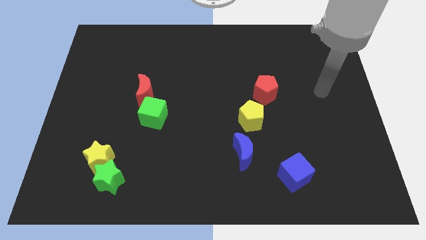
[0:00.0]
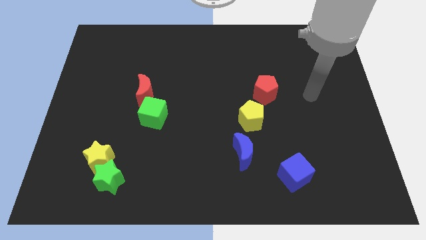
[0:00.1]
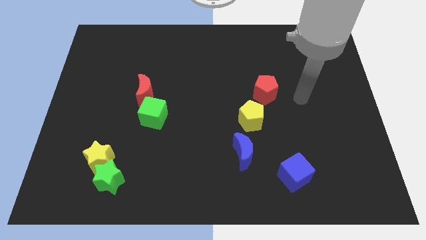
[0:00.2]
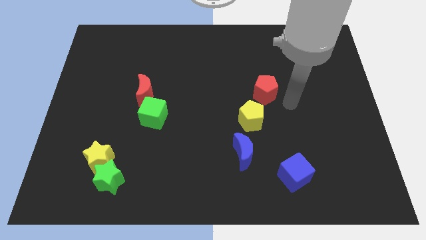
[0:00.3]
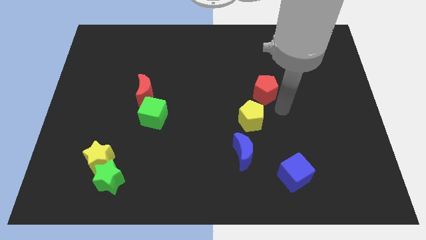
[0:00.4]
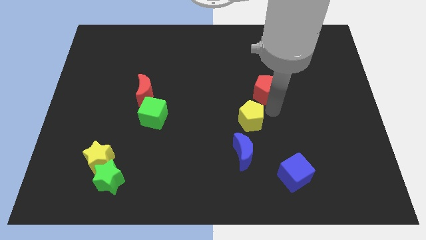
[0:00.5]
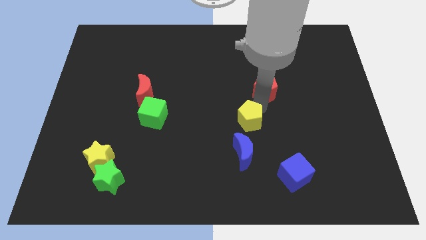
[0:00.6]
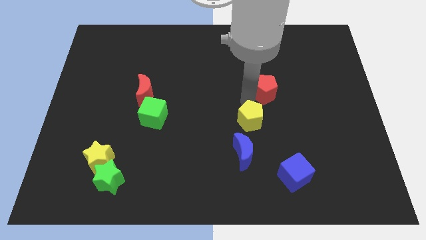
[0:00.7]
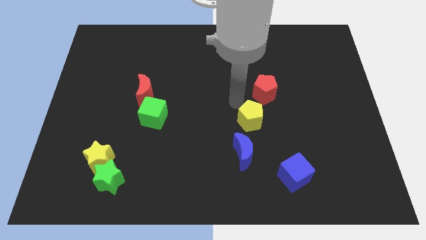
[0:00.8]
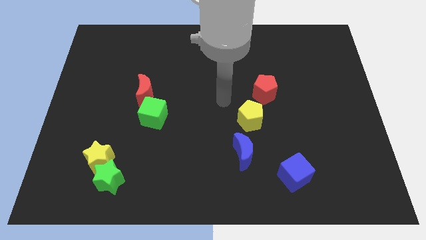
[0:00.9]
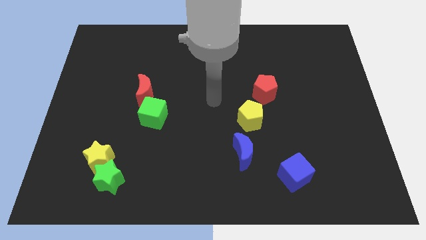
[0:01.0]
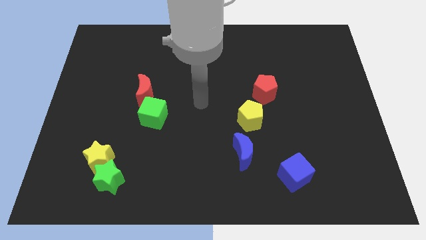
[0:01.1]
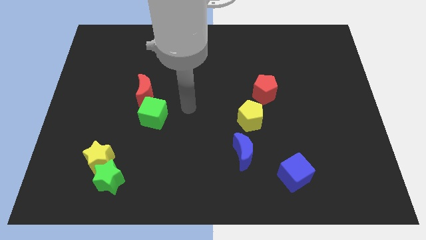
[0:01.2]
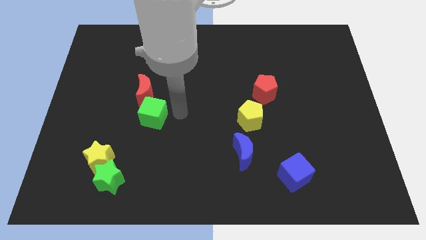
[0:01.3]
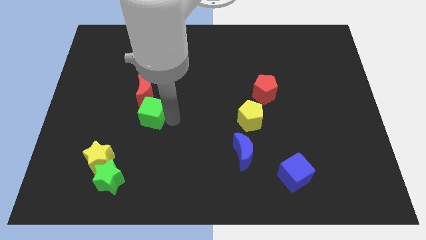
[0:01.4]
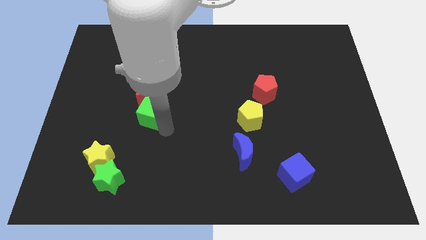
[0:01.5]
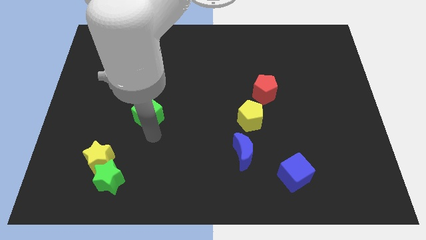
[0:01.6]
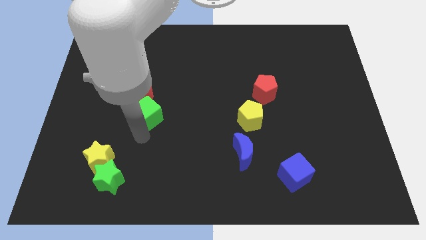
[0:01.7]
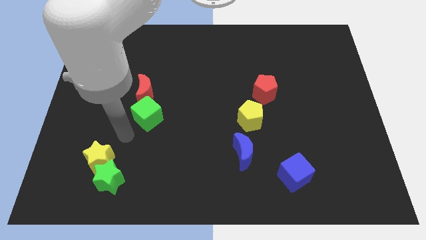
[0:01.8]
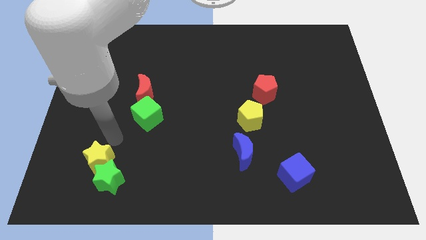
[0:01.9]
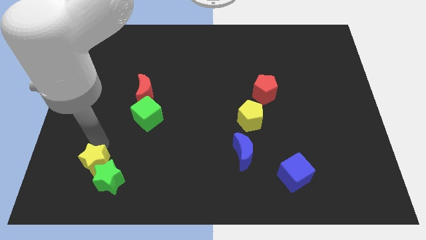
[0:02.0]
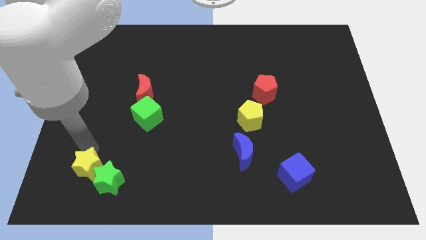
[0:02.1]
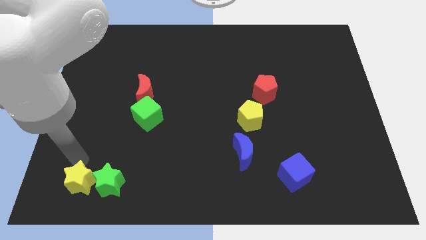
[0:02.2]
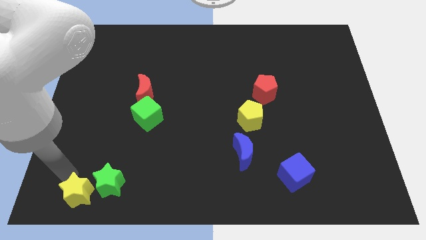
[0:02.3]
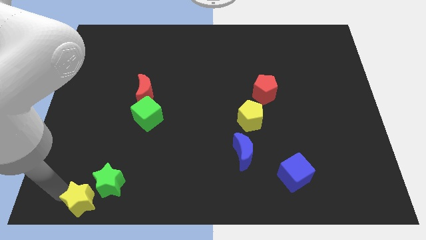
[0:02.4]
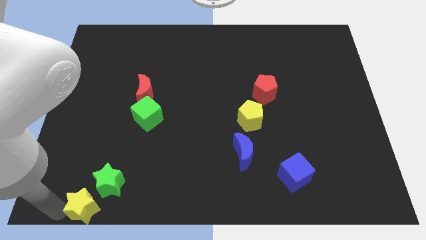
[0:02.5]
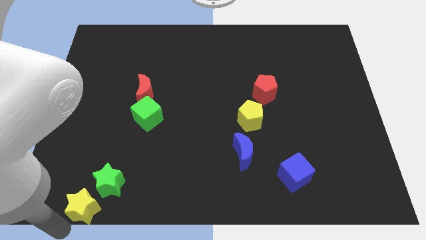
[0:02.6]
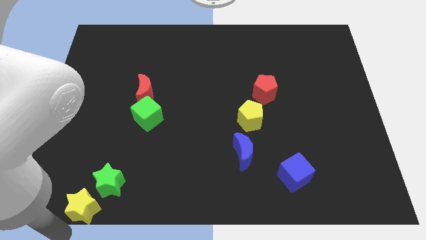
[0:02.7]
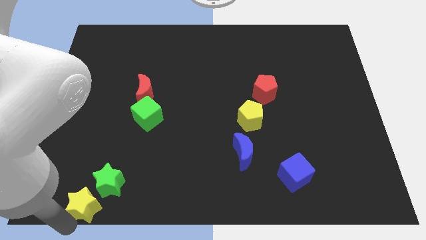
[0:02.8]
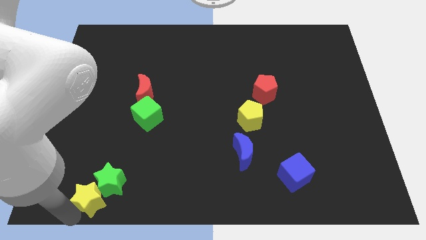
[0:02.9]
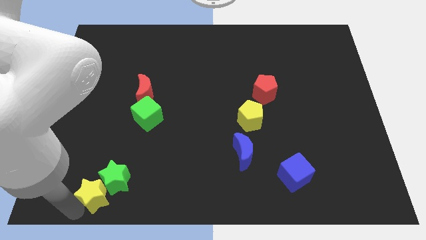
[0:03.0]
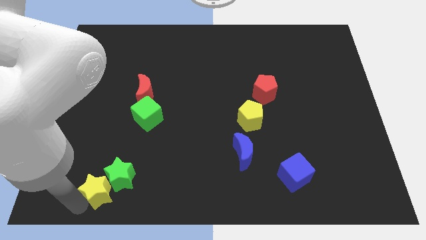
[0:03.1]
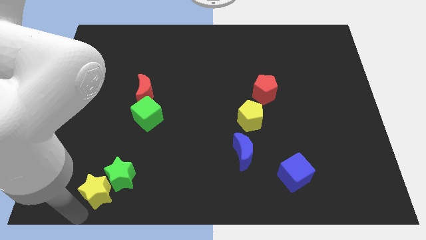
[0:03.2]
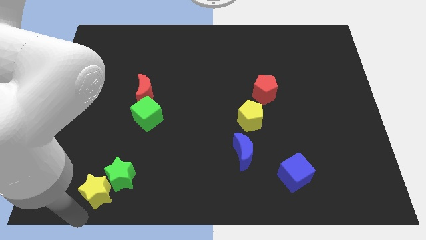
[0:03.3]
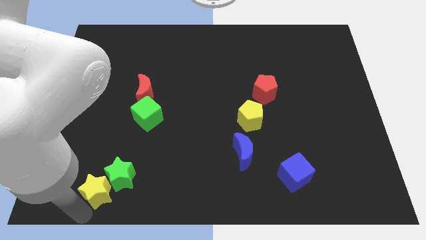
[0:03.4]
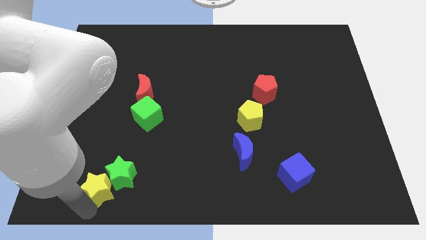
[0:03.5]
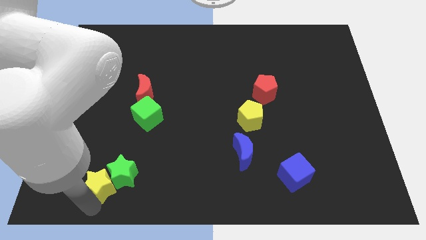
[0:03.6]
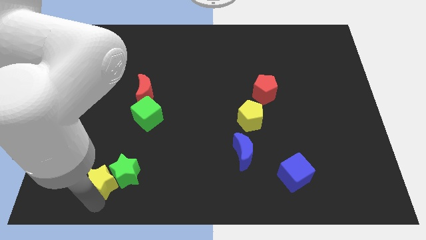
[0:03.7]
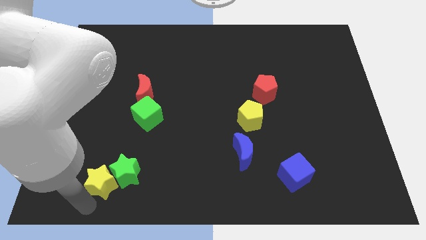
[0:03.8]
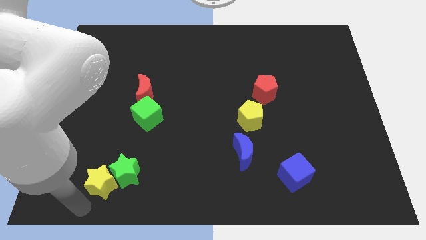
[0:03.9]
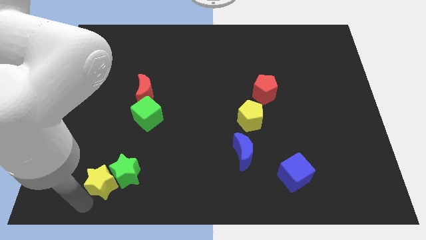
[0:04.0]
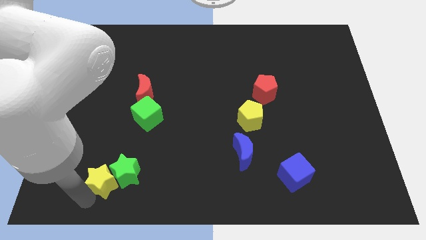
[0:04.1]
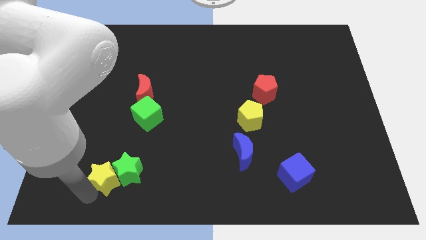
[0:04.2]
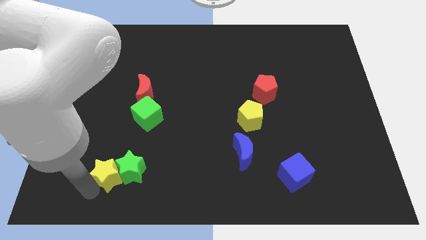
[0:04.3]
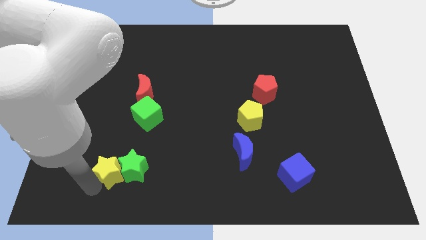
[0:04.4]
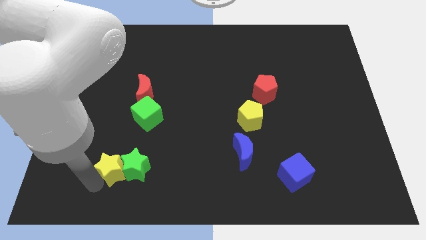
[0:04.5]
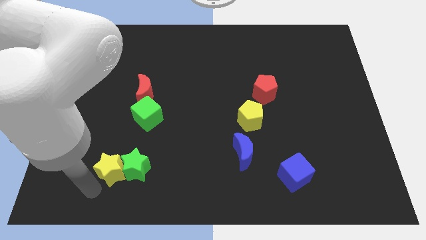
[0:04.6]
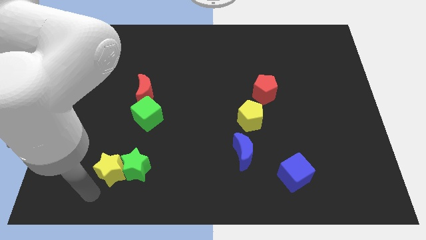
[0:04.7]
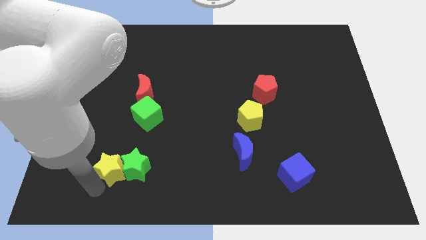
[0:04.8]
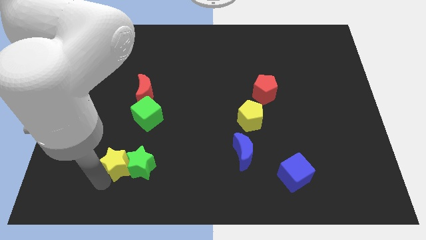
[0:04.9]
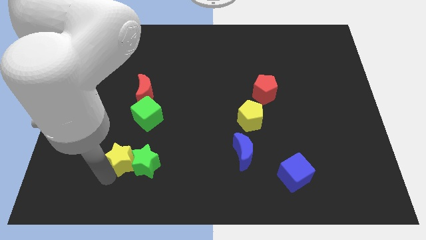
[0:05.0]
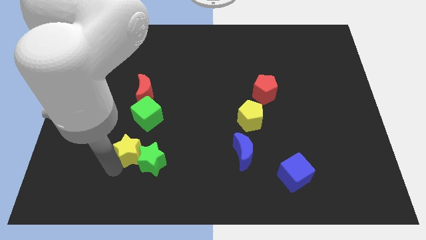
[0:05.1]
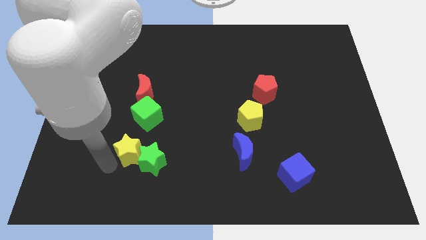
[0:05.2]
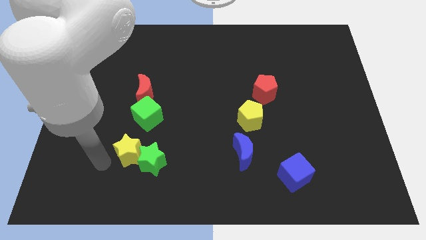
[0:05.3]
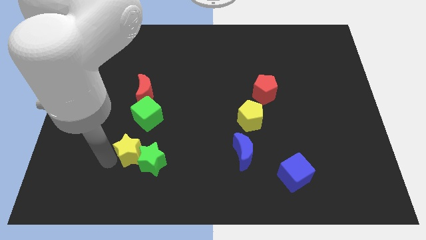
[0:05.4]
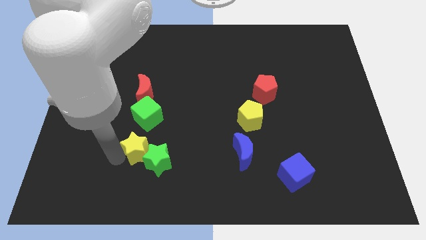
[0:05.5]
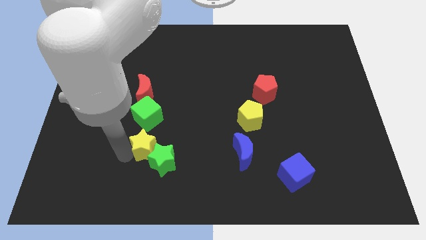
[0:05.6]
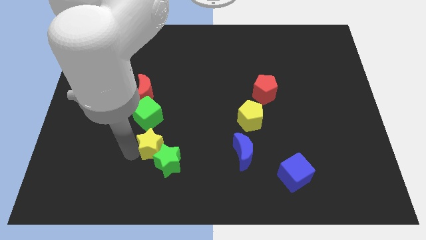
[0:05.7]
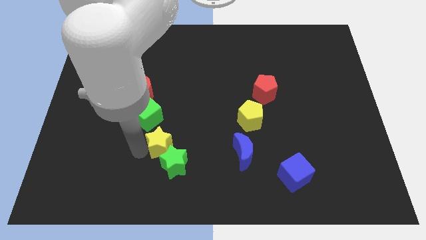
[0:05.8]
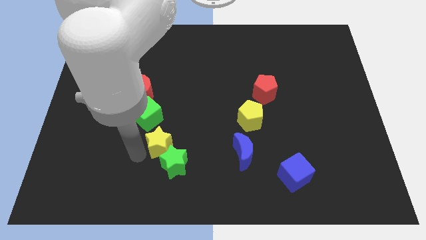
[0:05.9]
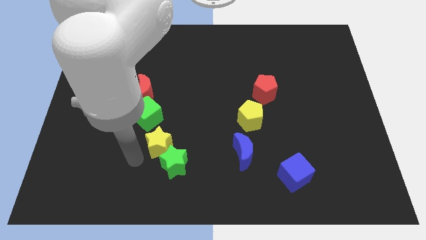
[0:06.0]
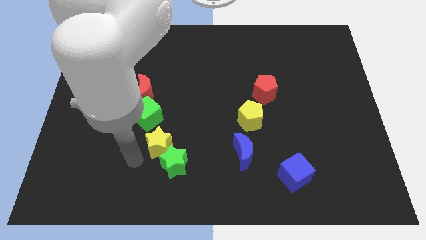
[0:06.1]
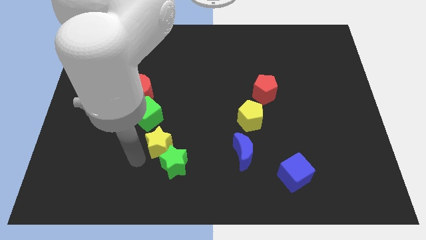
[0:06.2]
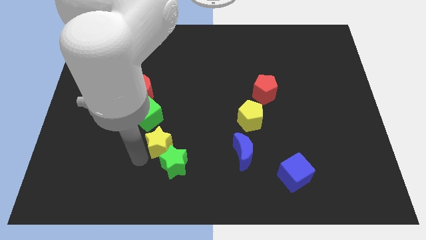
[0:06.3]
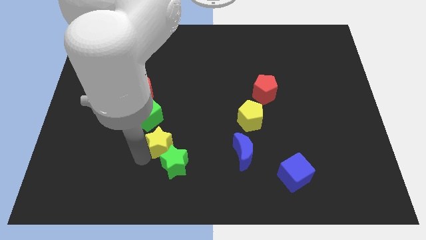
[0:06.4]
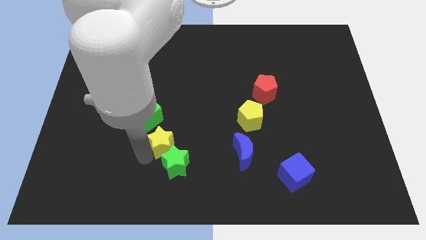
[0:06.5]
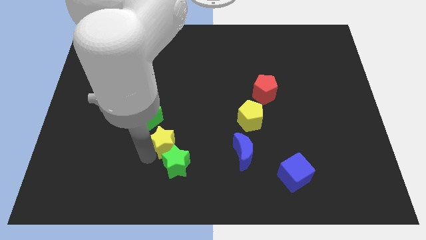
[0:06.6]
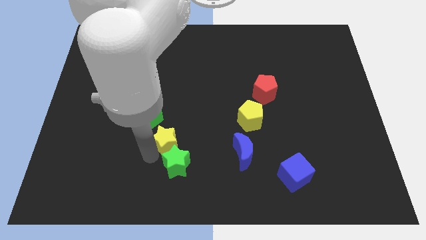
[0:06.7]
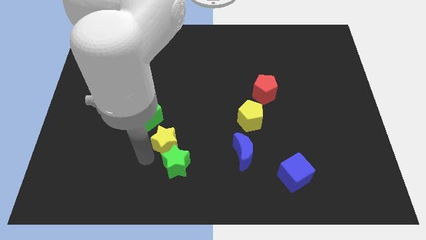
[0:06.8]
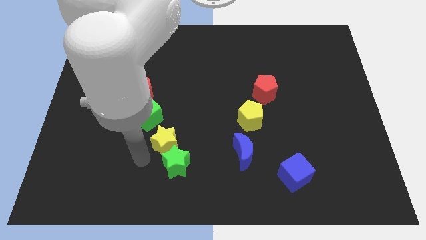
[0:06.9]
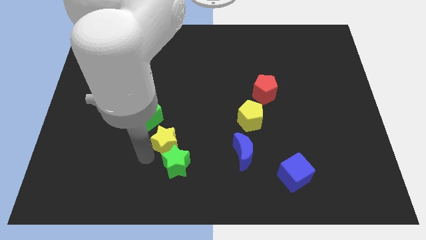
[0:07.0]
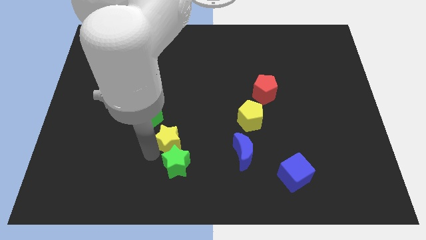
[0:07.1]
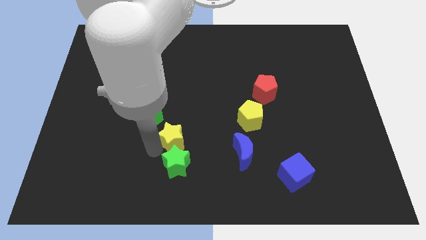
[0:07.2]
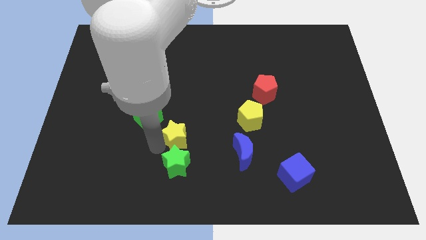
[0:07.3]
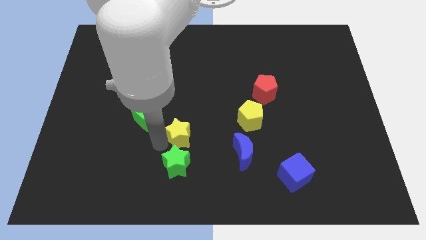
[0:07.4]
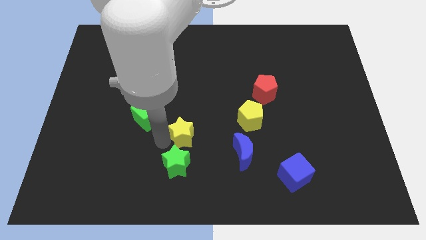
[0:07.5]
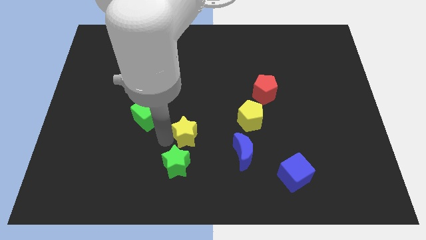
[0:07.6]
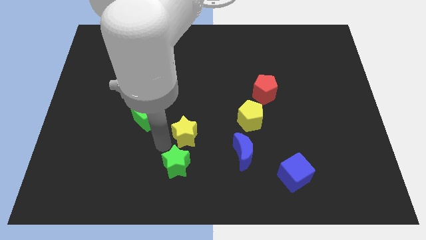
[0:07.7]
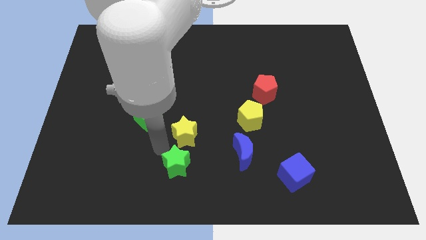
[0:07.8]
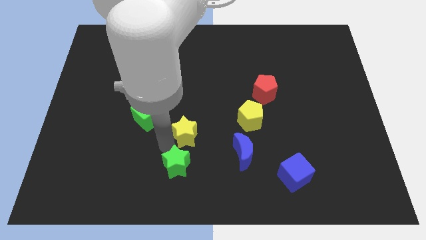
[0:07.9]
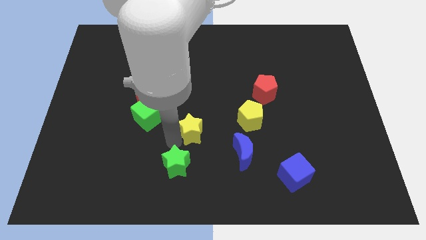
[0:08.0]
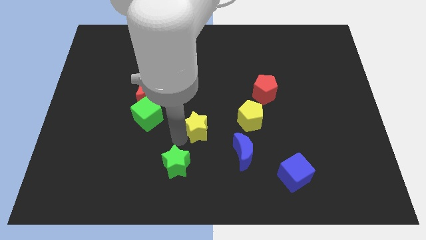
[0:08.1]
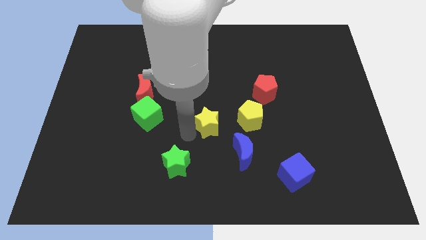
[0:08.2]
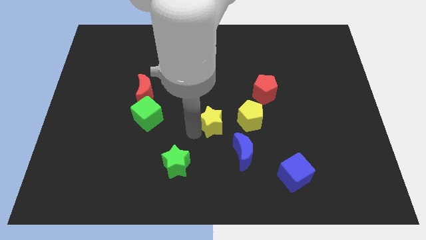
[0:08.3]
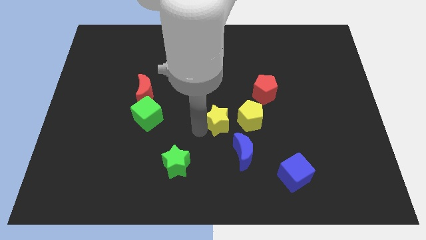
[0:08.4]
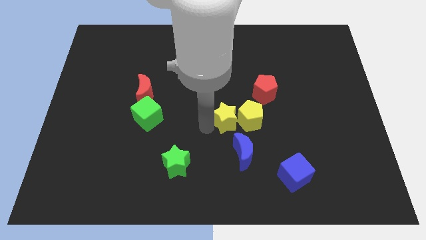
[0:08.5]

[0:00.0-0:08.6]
push the yellow star above the blue moon
